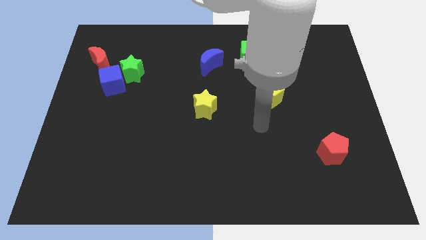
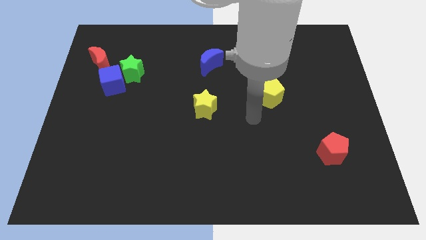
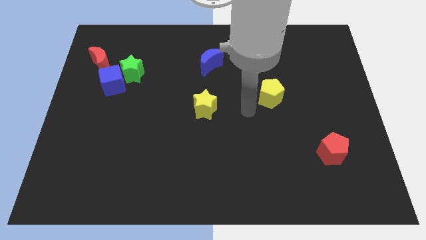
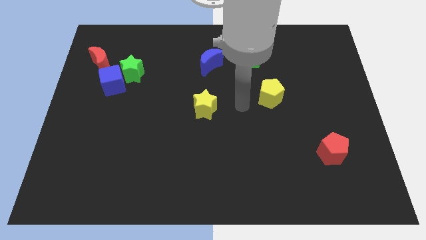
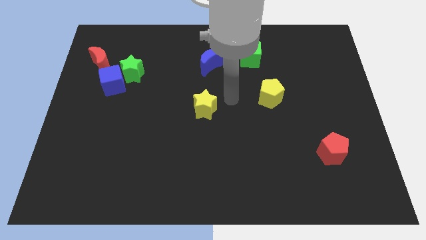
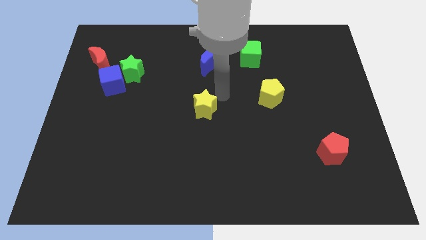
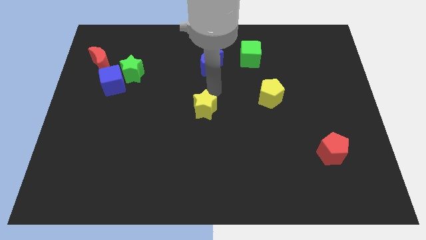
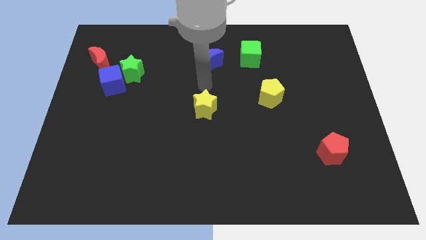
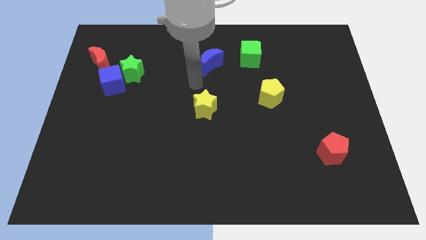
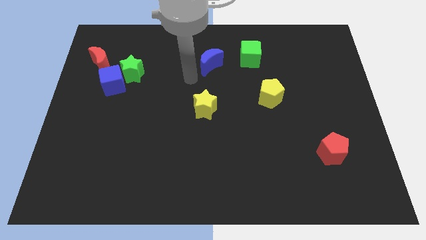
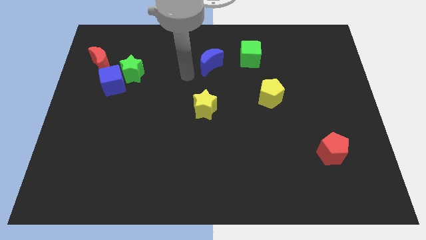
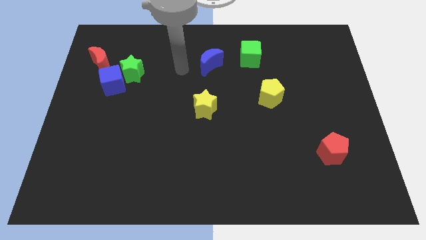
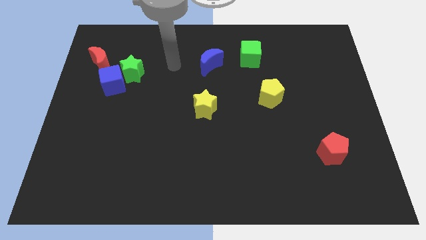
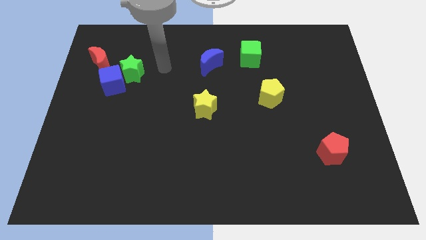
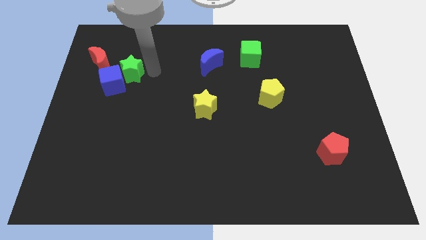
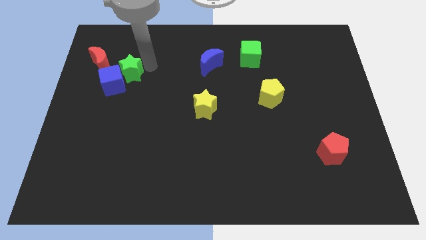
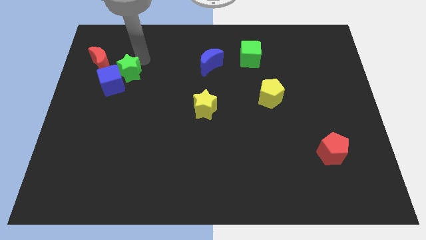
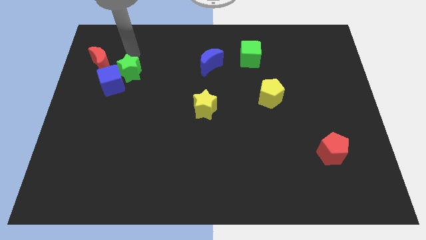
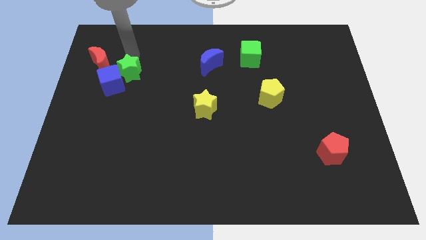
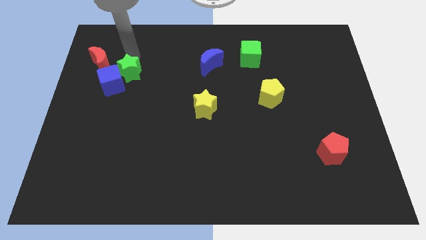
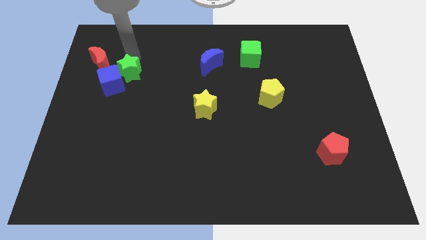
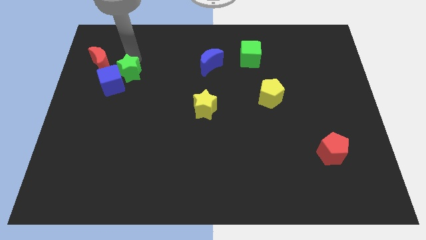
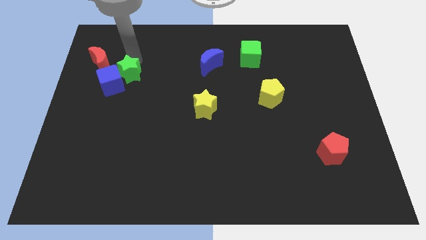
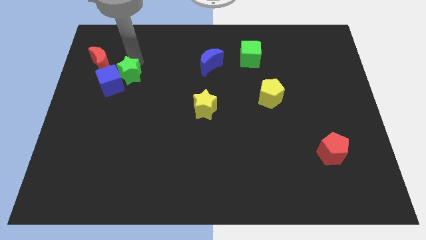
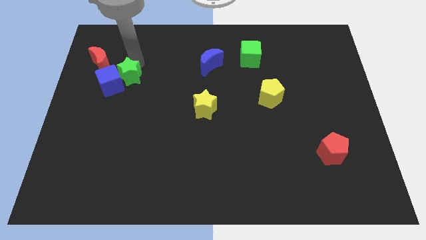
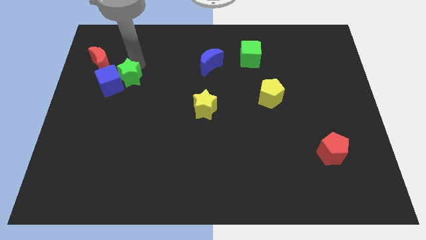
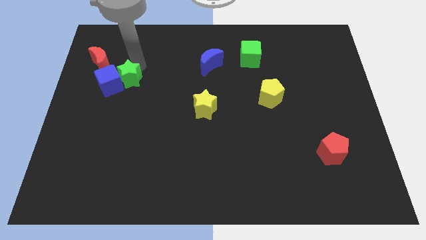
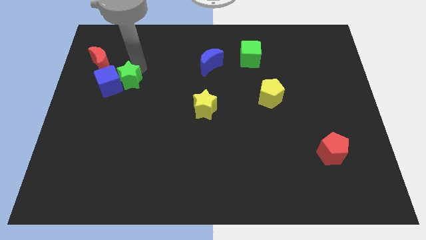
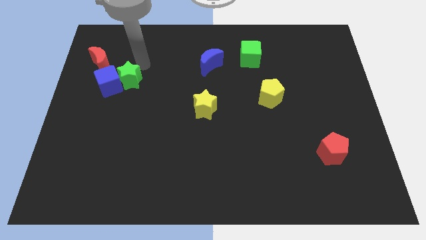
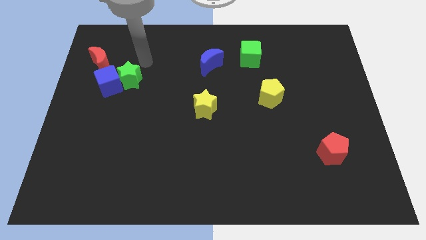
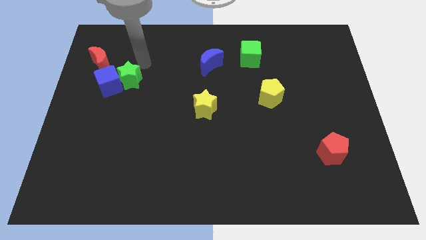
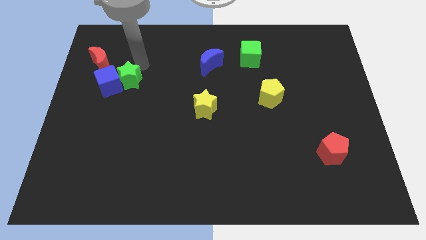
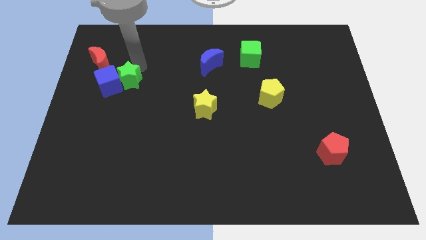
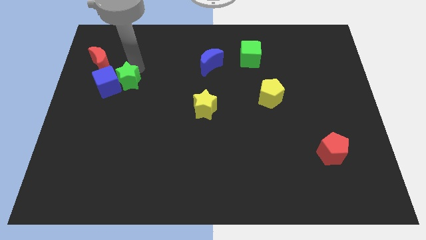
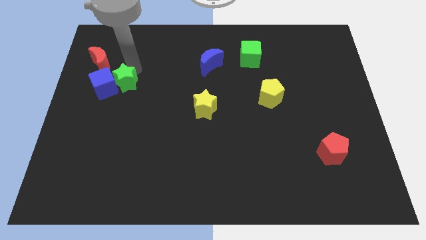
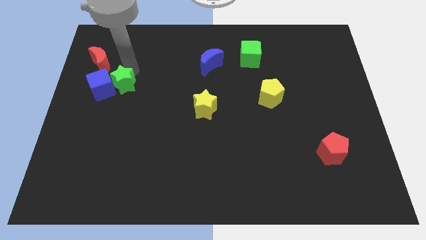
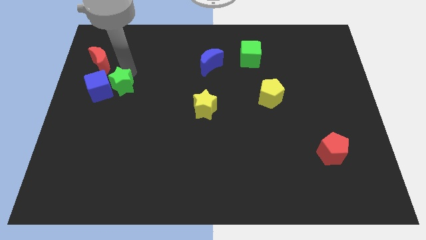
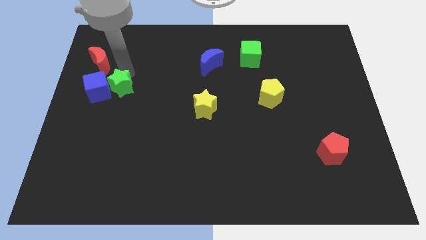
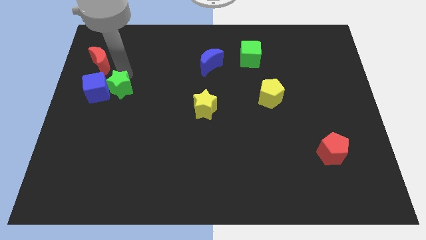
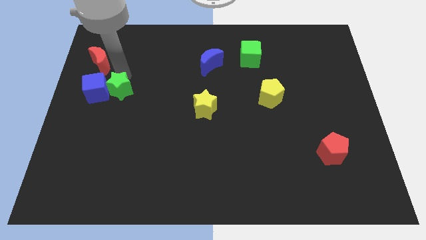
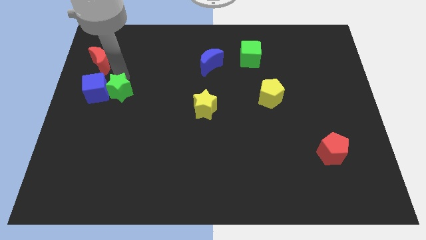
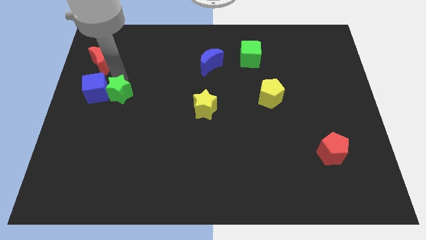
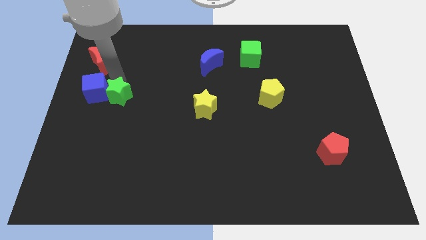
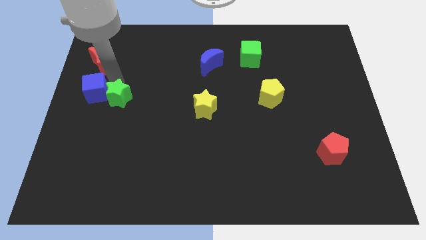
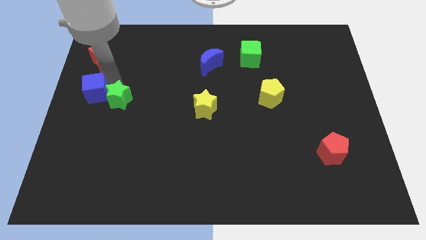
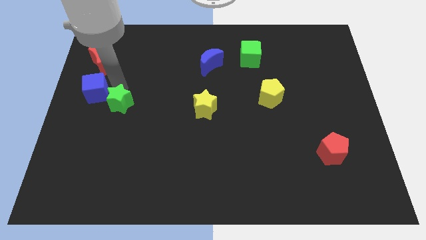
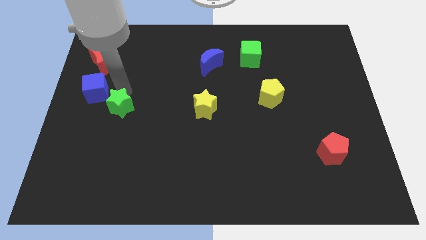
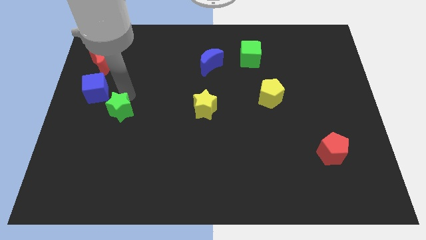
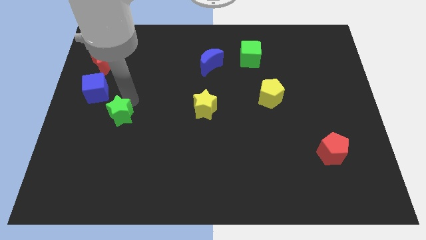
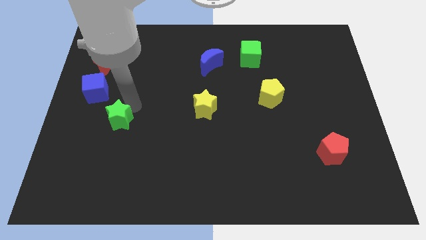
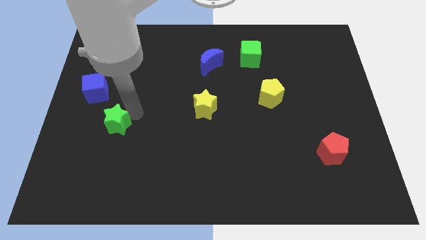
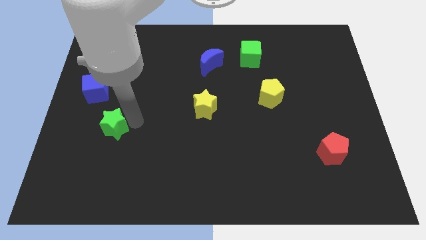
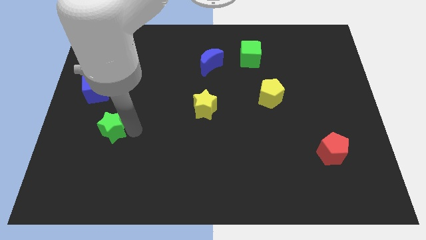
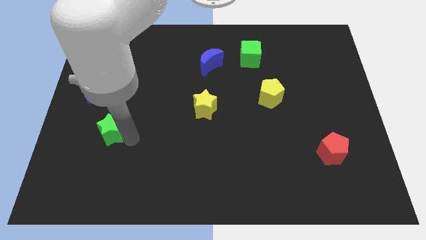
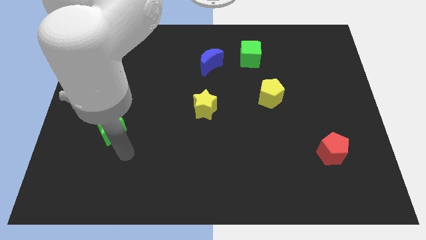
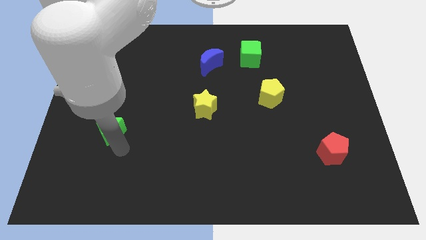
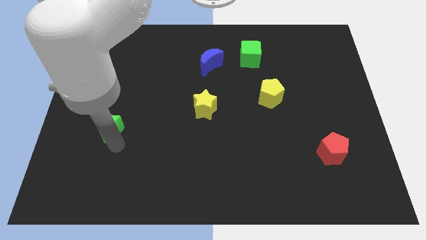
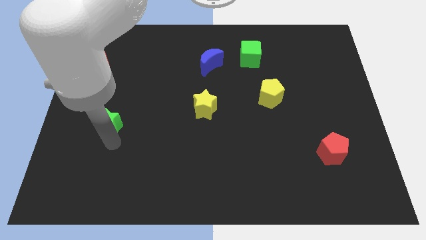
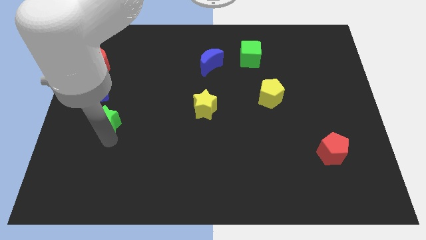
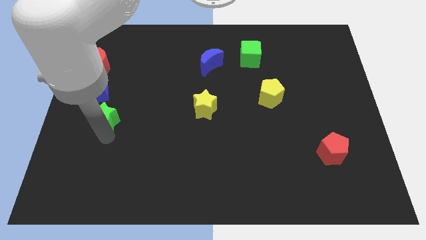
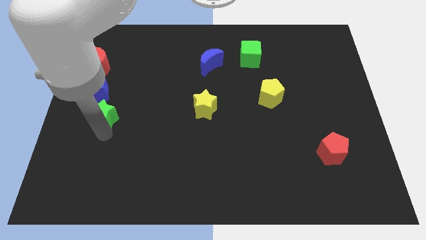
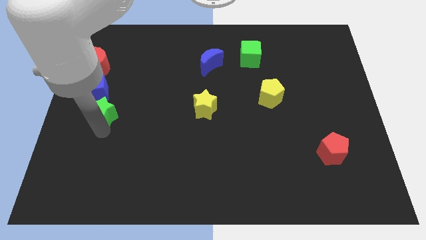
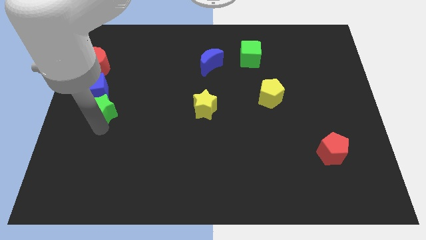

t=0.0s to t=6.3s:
slide the green star to the center left
